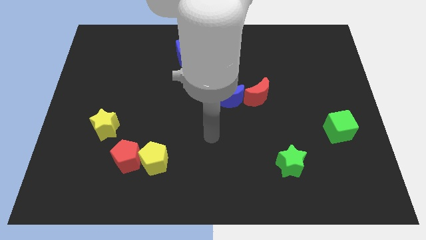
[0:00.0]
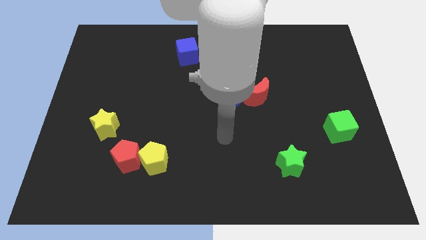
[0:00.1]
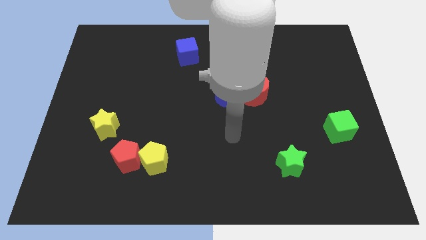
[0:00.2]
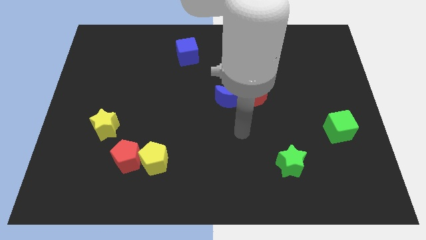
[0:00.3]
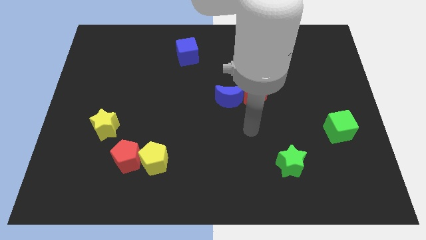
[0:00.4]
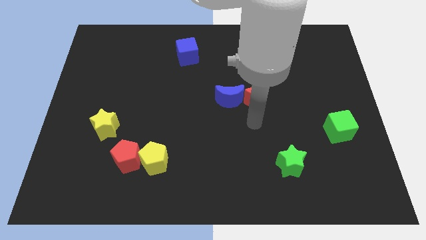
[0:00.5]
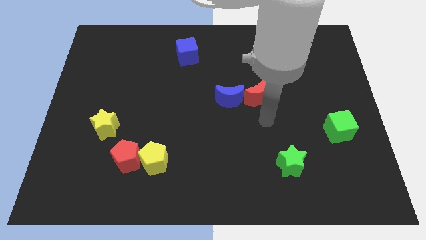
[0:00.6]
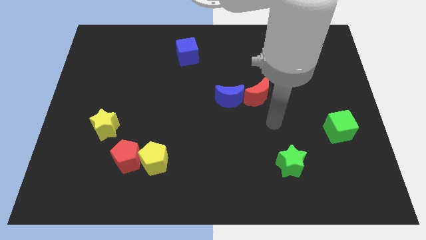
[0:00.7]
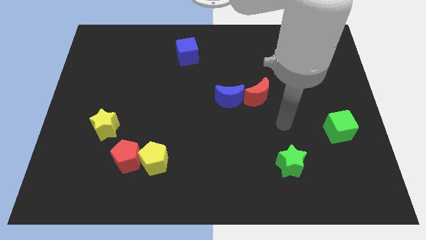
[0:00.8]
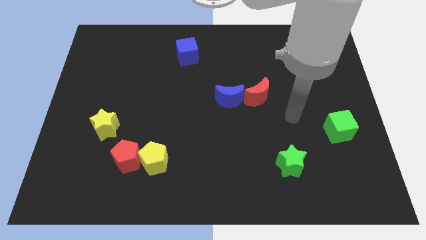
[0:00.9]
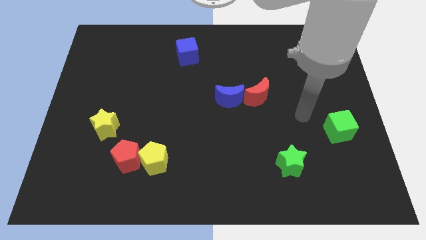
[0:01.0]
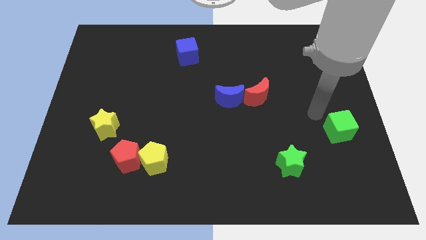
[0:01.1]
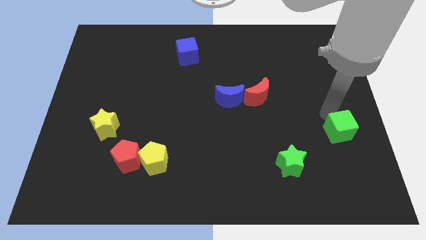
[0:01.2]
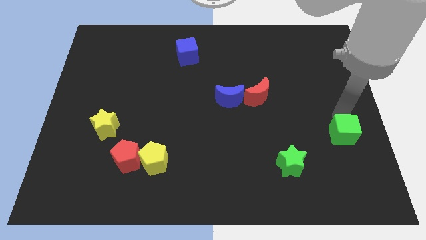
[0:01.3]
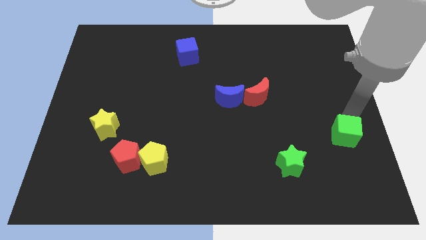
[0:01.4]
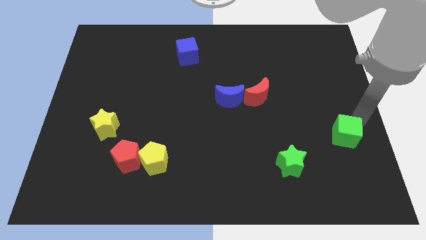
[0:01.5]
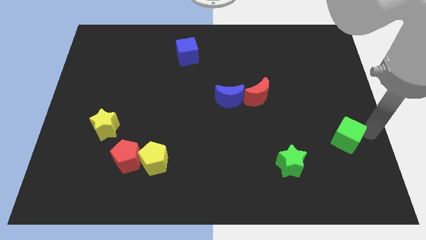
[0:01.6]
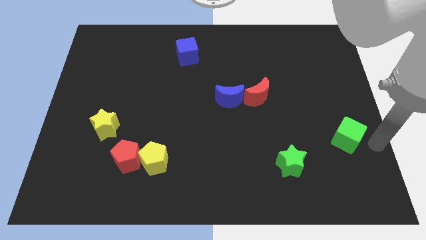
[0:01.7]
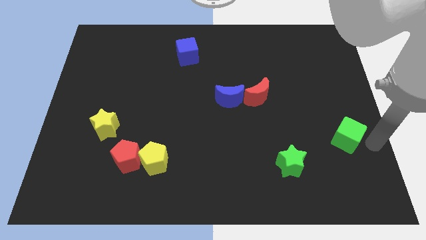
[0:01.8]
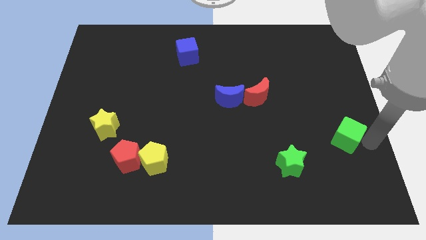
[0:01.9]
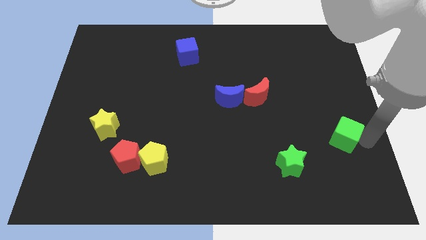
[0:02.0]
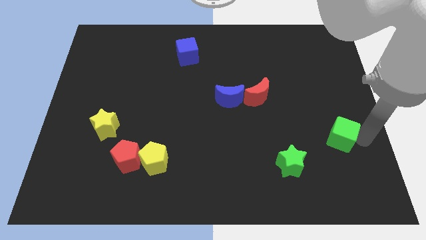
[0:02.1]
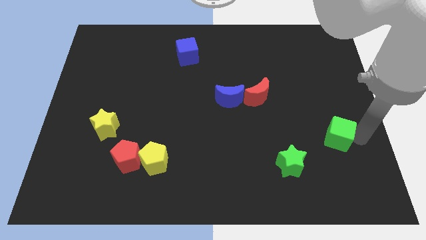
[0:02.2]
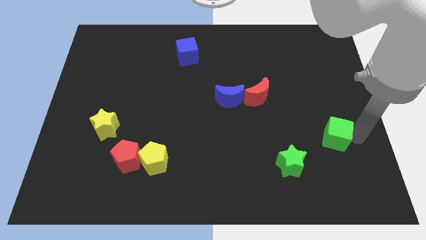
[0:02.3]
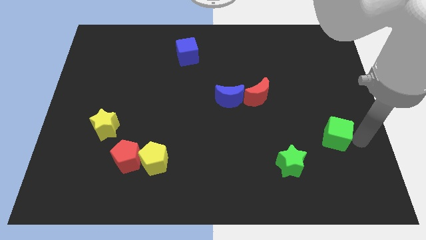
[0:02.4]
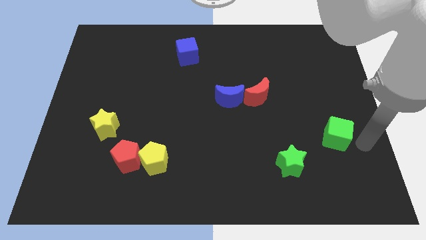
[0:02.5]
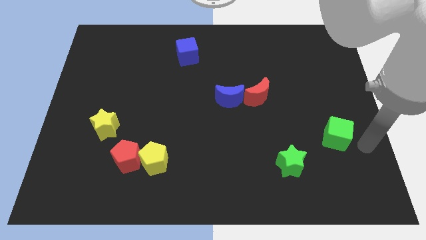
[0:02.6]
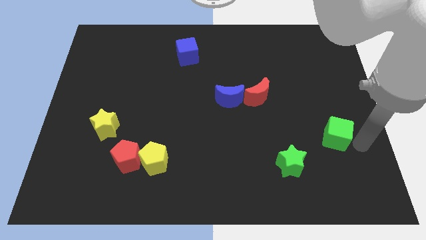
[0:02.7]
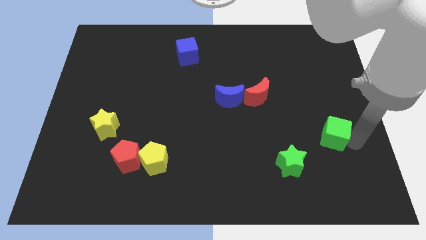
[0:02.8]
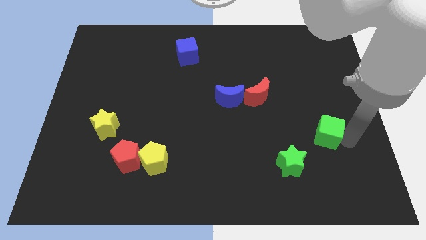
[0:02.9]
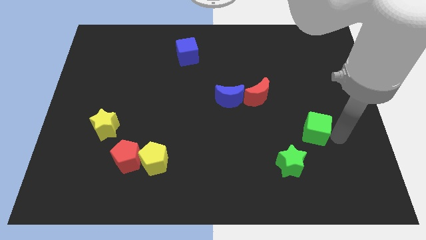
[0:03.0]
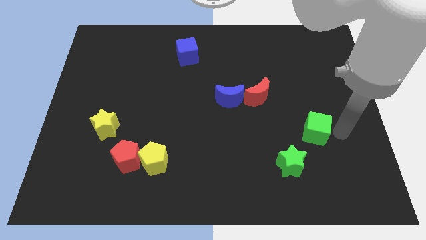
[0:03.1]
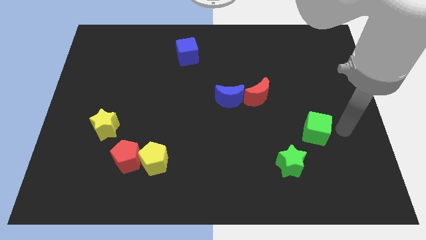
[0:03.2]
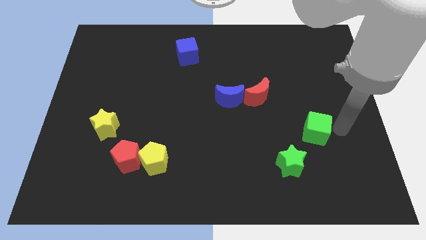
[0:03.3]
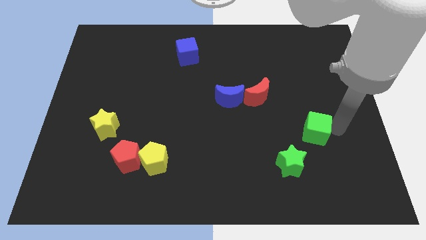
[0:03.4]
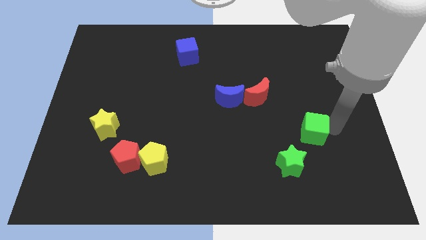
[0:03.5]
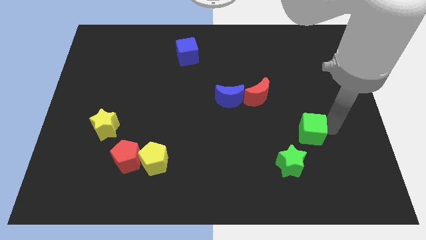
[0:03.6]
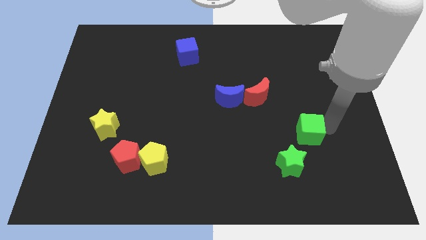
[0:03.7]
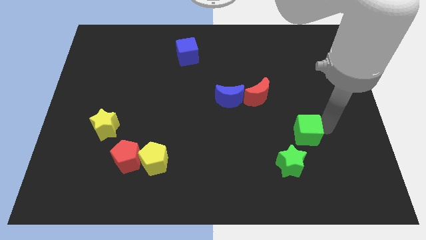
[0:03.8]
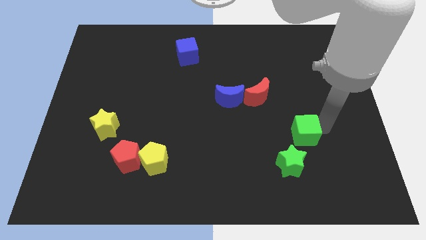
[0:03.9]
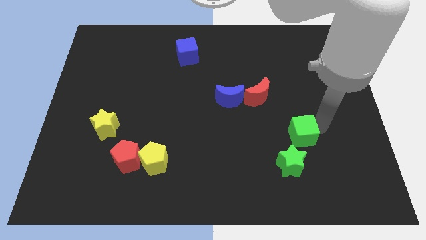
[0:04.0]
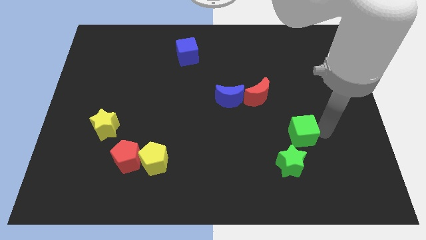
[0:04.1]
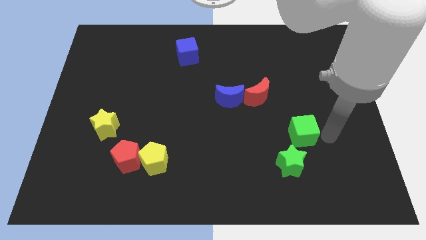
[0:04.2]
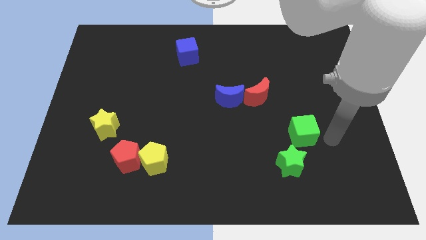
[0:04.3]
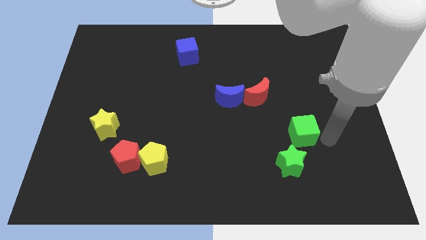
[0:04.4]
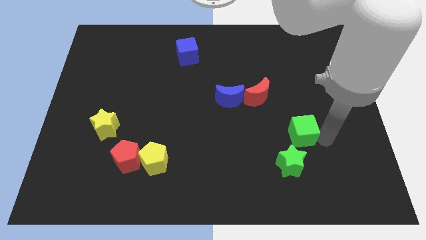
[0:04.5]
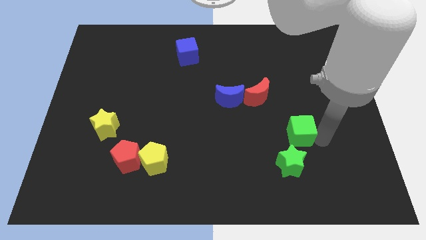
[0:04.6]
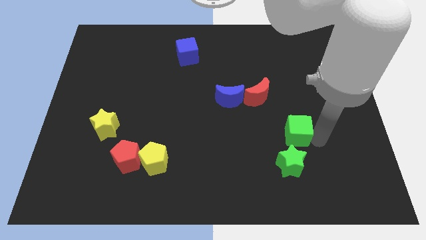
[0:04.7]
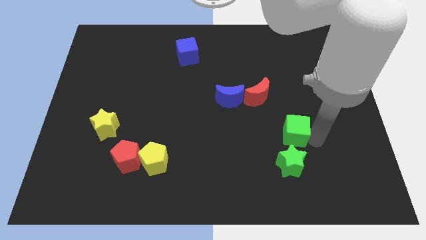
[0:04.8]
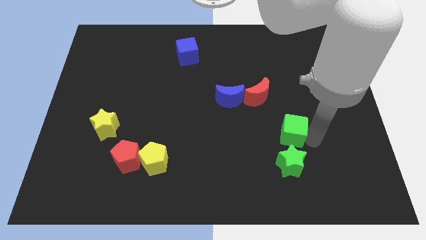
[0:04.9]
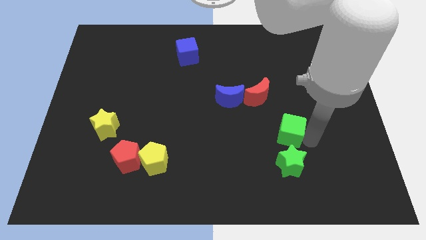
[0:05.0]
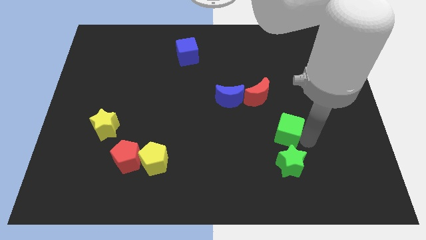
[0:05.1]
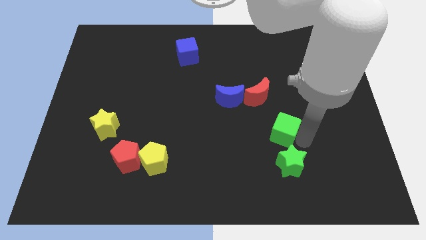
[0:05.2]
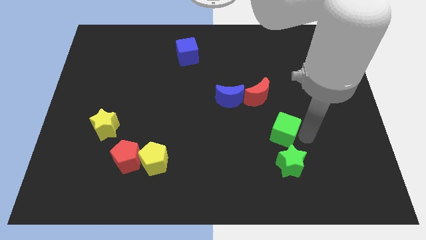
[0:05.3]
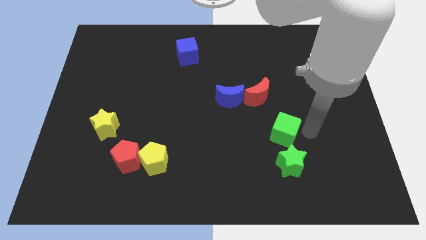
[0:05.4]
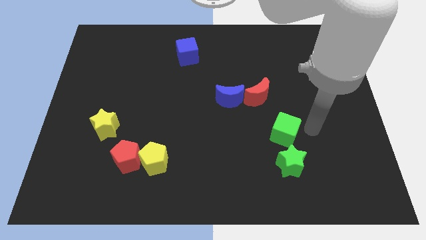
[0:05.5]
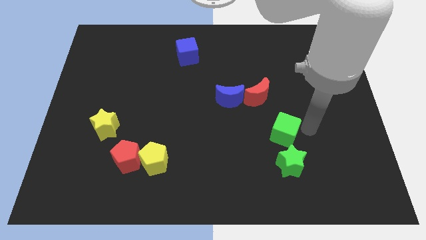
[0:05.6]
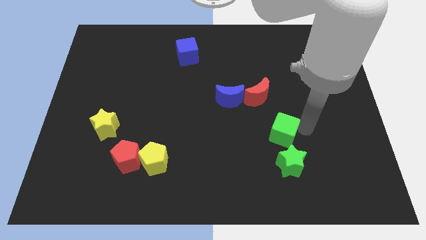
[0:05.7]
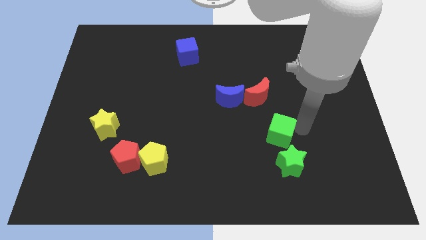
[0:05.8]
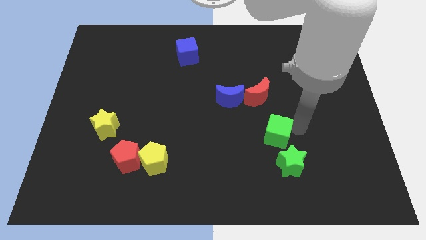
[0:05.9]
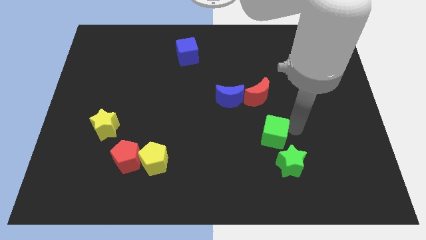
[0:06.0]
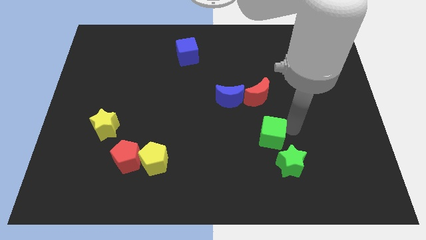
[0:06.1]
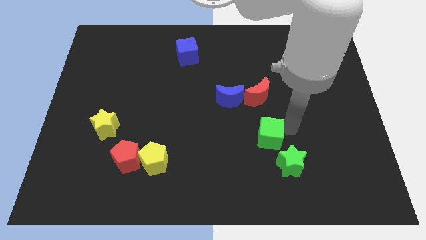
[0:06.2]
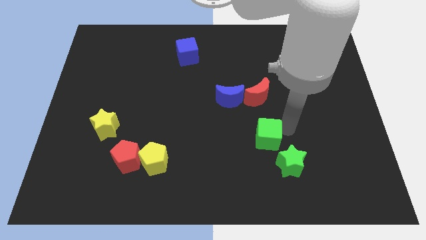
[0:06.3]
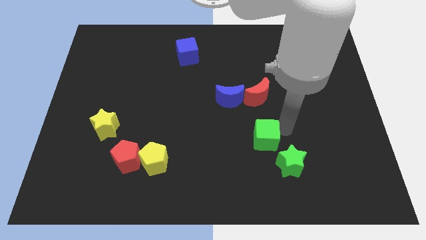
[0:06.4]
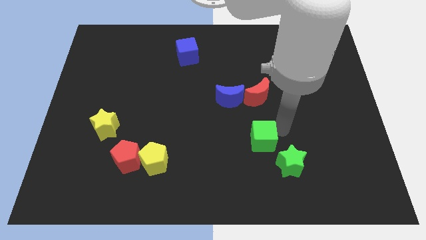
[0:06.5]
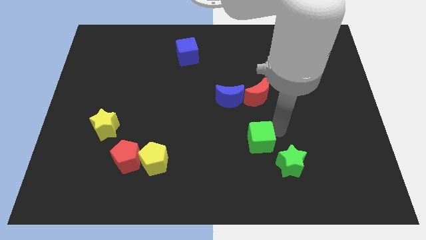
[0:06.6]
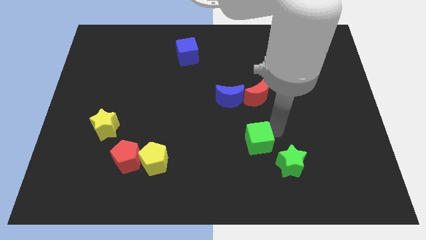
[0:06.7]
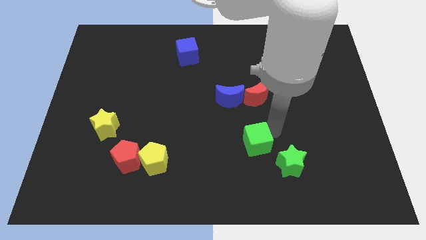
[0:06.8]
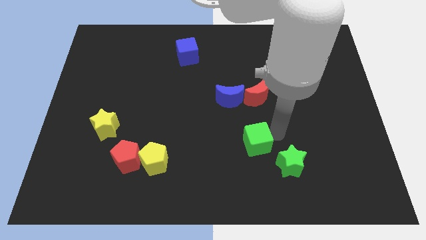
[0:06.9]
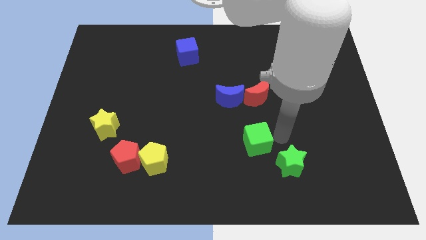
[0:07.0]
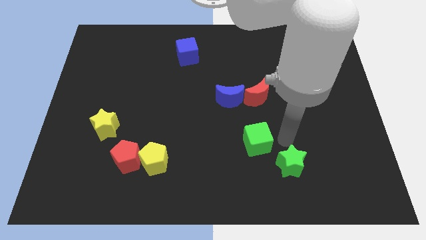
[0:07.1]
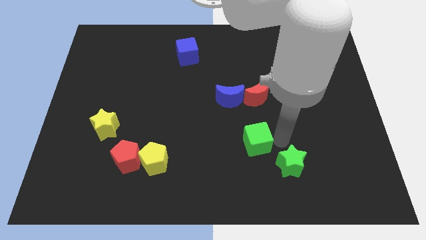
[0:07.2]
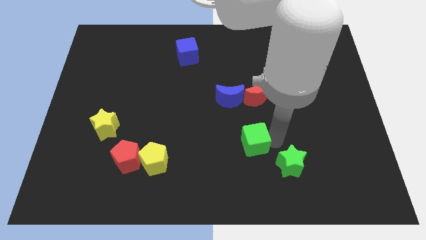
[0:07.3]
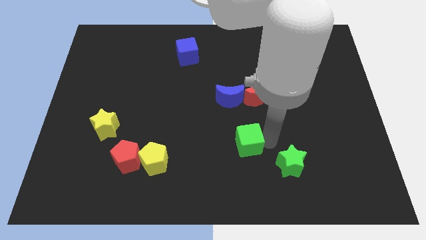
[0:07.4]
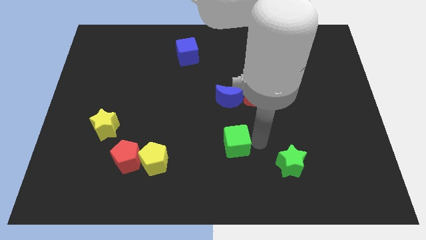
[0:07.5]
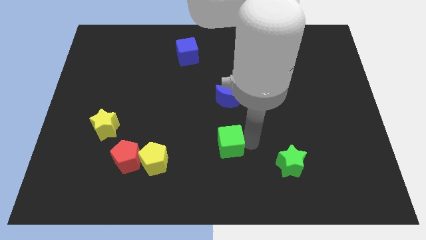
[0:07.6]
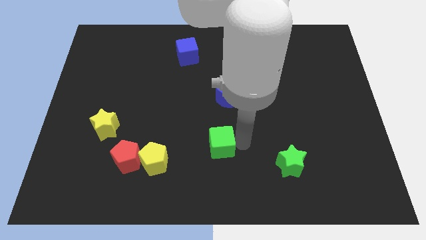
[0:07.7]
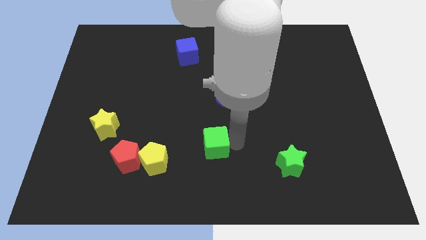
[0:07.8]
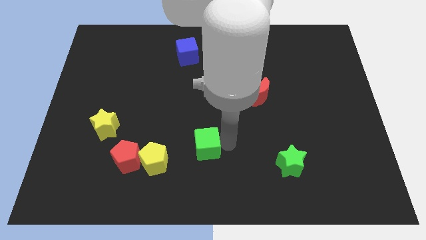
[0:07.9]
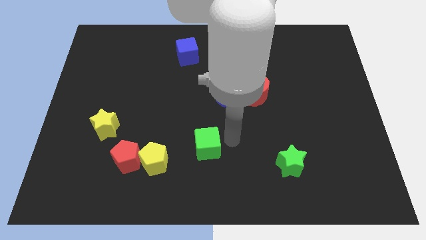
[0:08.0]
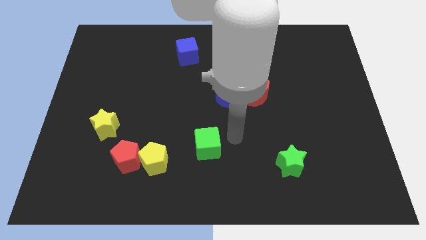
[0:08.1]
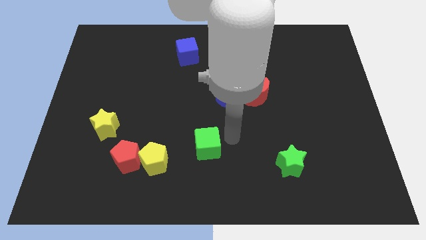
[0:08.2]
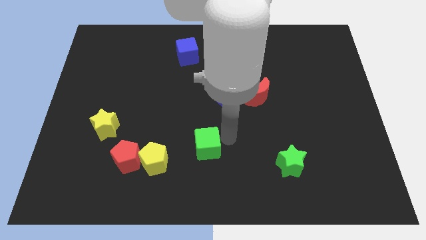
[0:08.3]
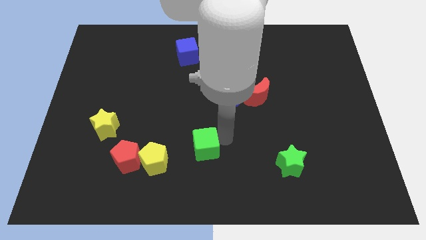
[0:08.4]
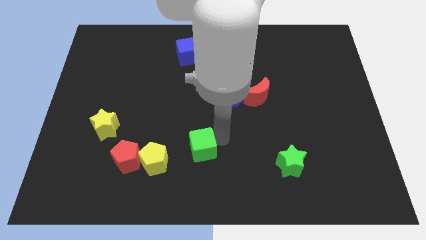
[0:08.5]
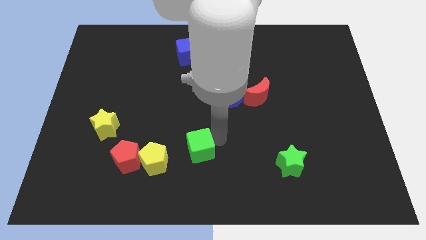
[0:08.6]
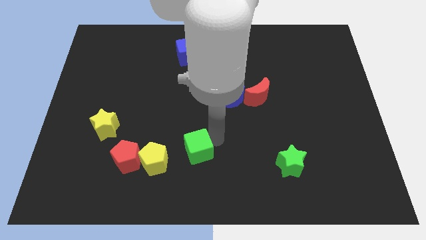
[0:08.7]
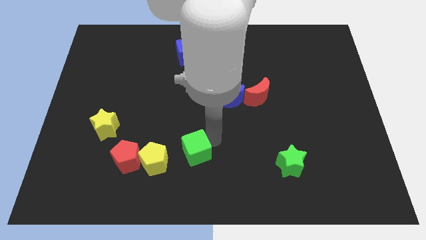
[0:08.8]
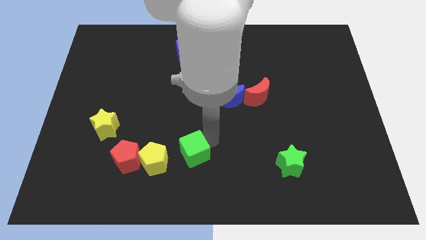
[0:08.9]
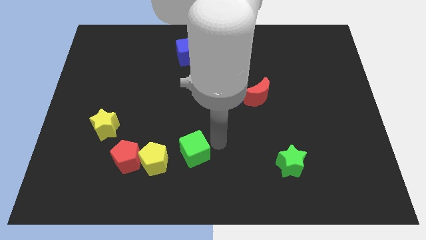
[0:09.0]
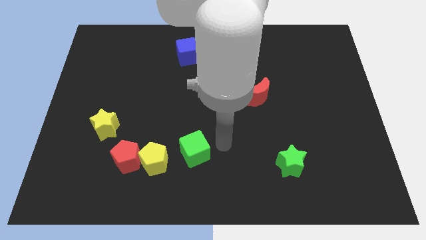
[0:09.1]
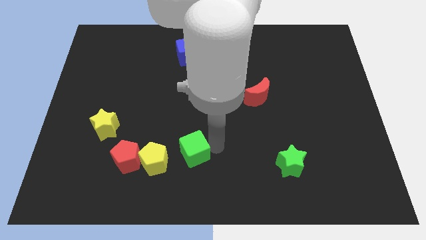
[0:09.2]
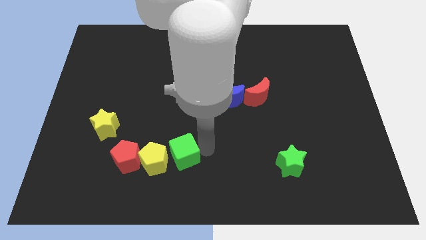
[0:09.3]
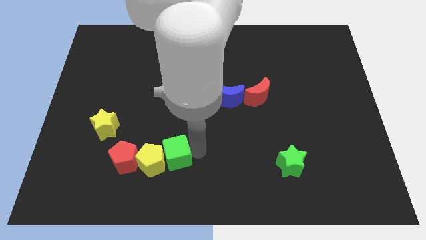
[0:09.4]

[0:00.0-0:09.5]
slide the green cube close to the yellow pentagon
